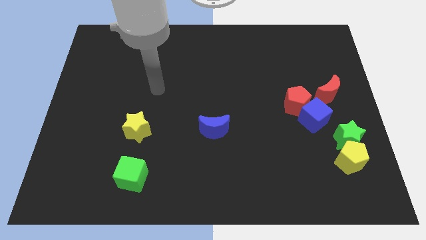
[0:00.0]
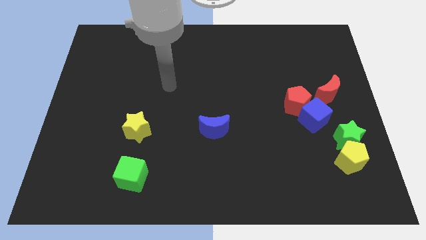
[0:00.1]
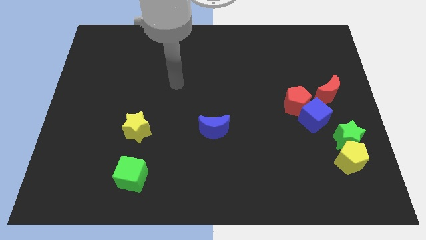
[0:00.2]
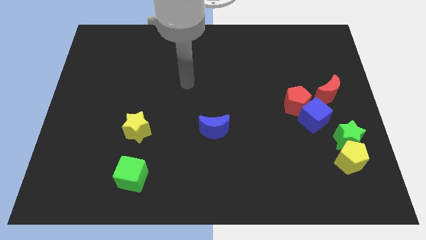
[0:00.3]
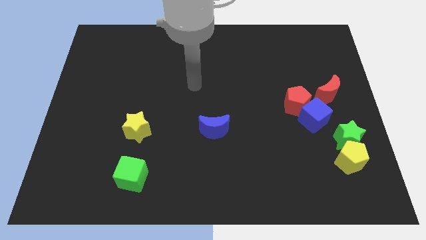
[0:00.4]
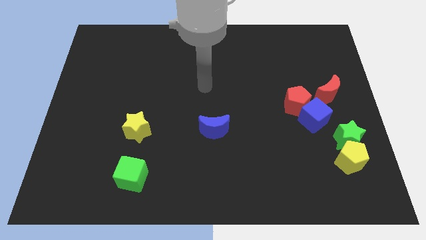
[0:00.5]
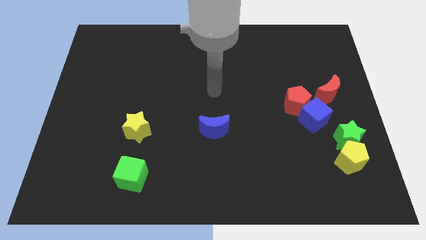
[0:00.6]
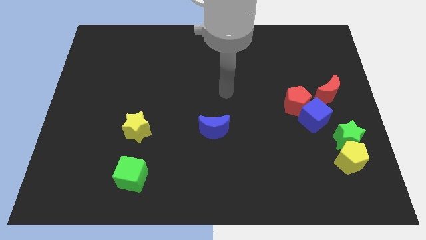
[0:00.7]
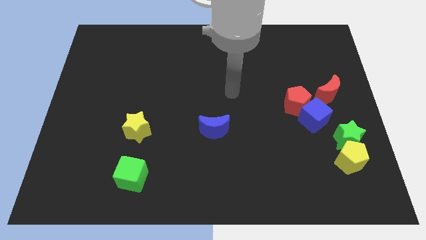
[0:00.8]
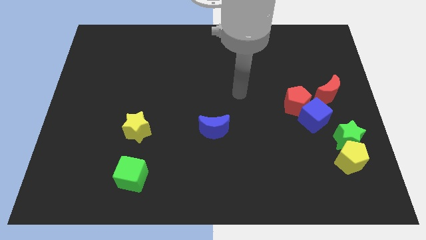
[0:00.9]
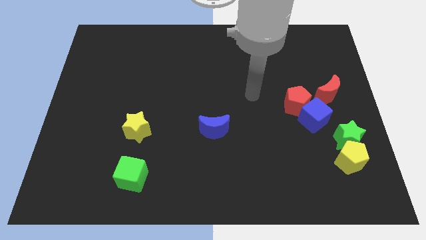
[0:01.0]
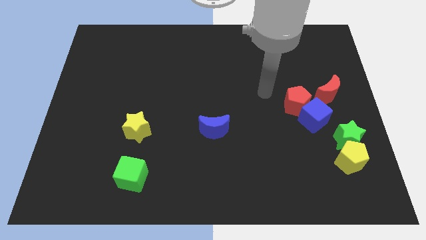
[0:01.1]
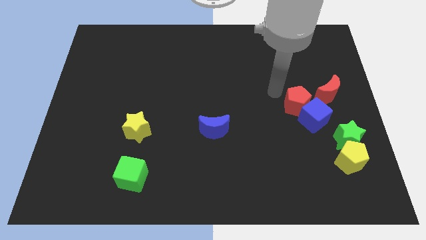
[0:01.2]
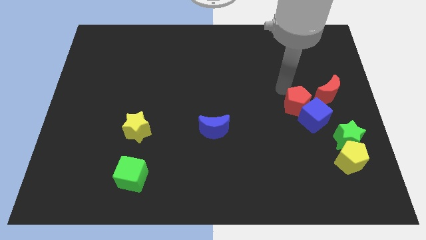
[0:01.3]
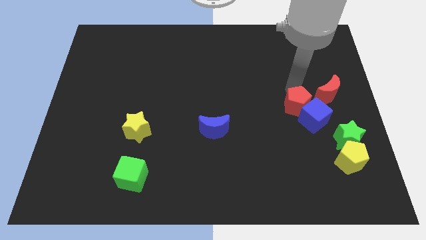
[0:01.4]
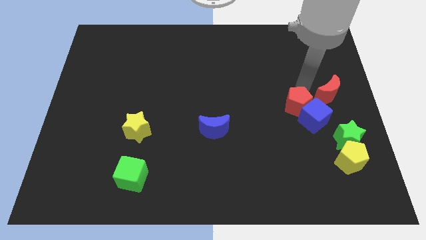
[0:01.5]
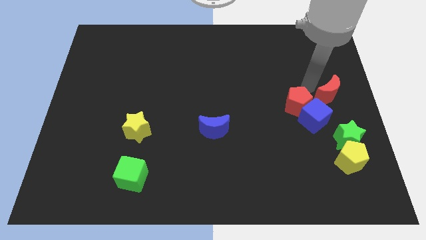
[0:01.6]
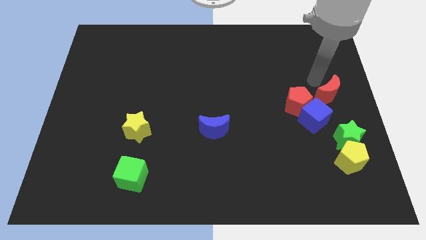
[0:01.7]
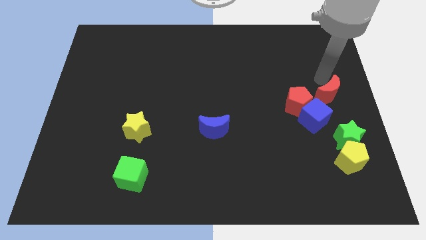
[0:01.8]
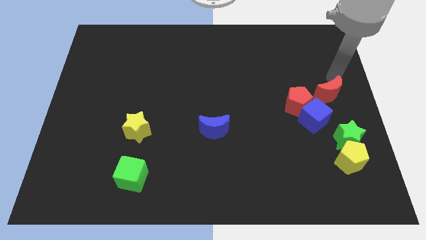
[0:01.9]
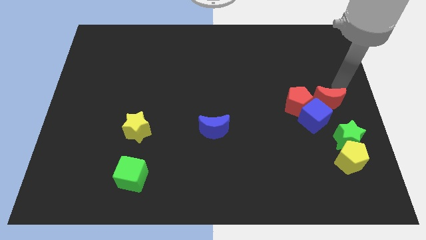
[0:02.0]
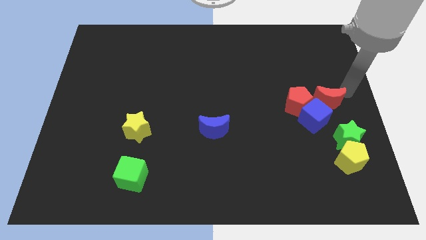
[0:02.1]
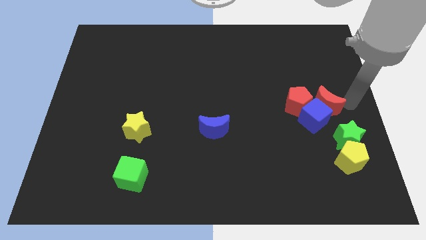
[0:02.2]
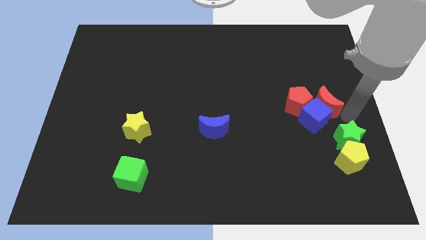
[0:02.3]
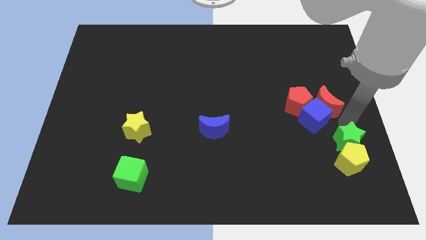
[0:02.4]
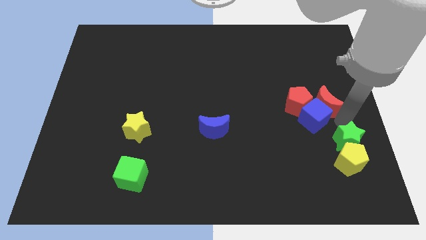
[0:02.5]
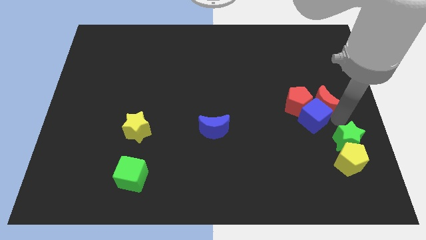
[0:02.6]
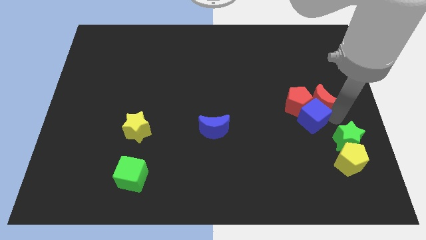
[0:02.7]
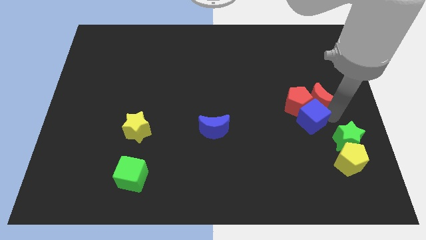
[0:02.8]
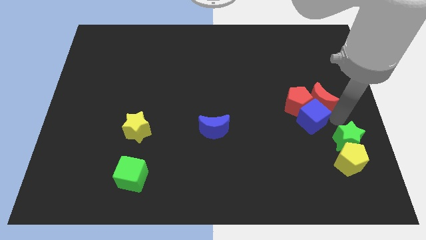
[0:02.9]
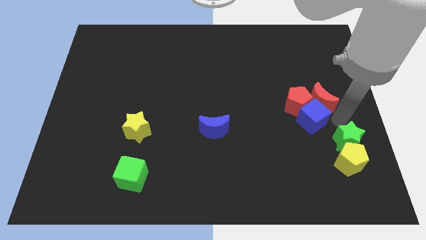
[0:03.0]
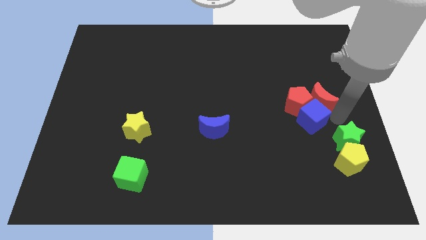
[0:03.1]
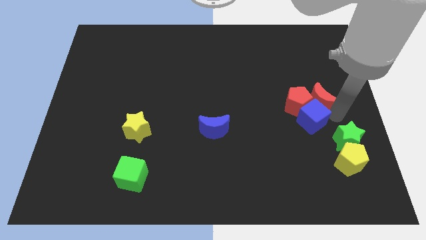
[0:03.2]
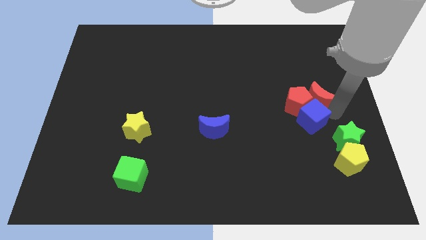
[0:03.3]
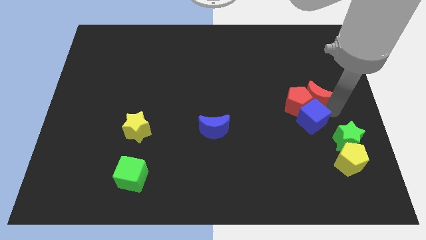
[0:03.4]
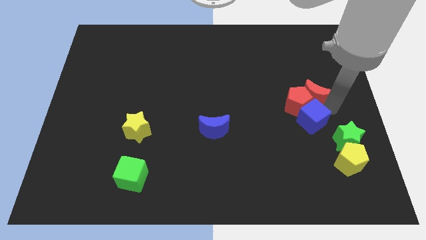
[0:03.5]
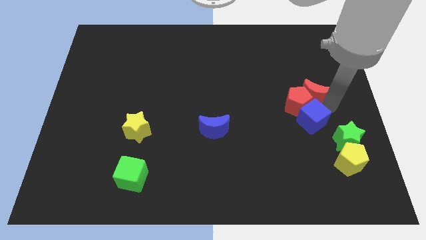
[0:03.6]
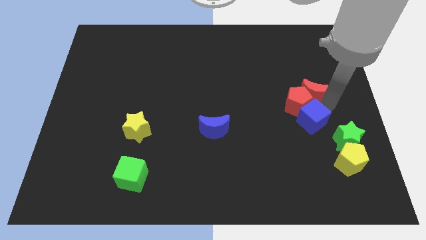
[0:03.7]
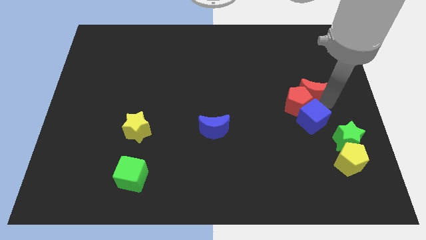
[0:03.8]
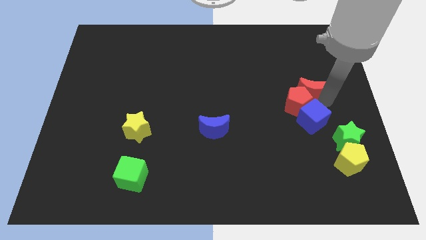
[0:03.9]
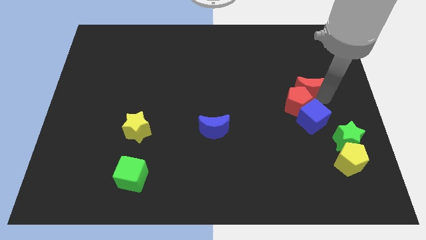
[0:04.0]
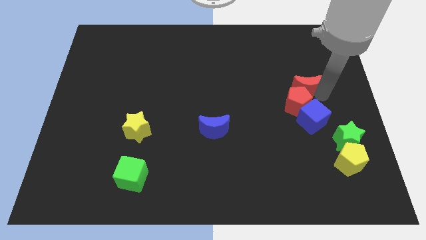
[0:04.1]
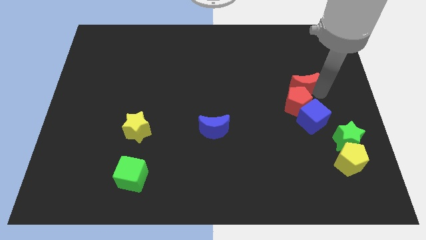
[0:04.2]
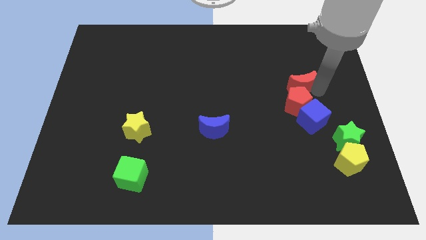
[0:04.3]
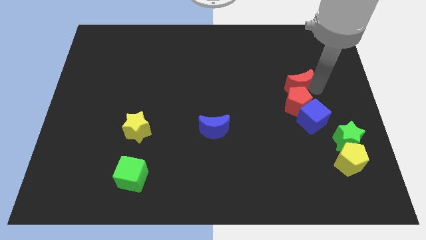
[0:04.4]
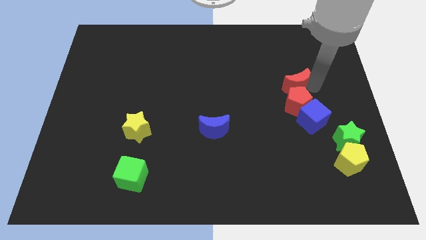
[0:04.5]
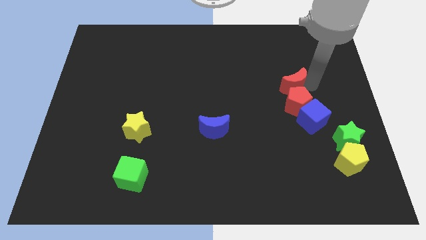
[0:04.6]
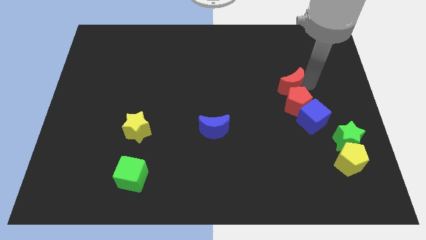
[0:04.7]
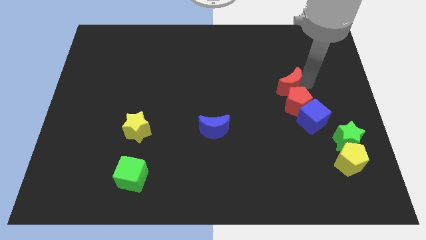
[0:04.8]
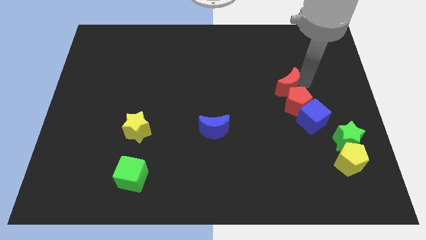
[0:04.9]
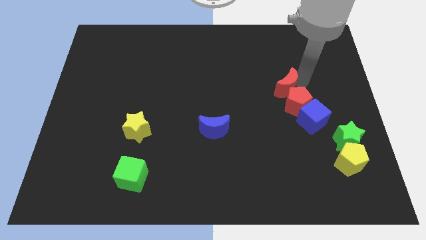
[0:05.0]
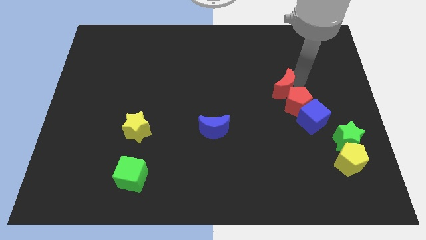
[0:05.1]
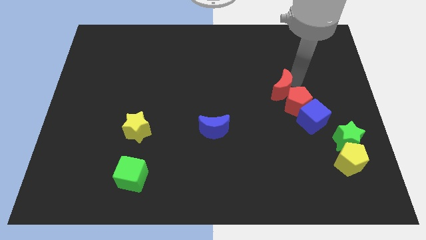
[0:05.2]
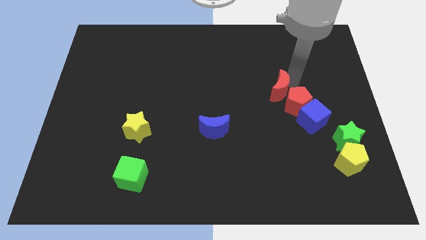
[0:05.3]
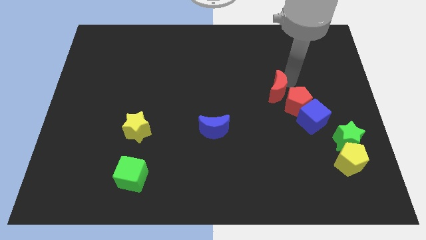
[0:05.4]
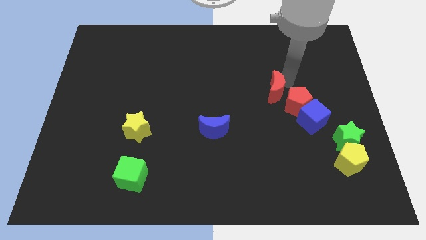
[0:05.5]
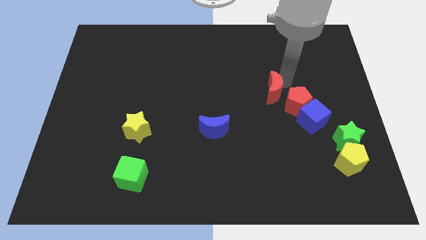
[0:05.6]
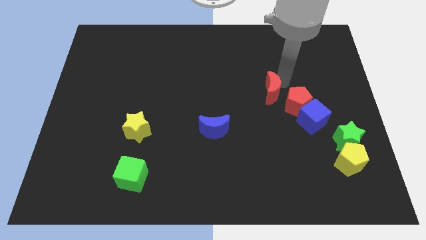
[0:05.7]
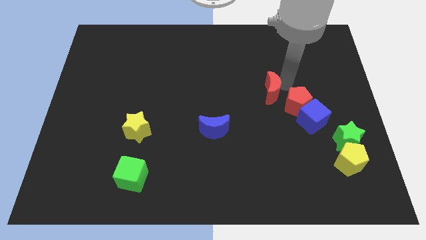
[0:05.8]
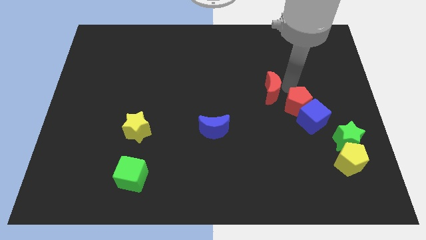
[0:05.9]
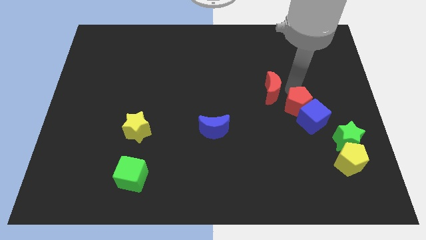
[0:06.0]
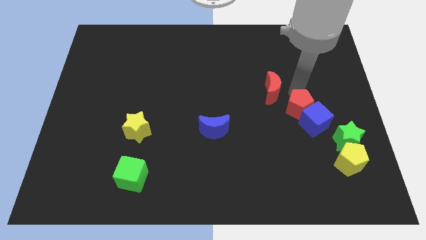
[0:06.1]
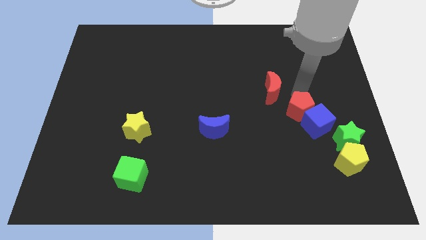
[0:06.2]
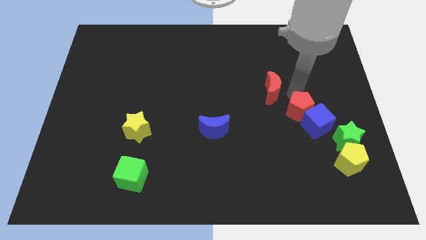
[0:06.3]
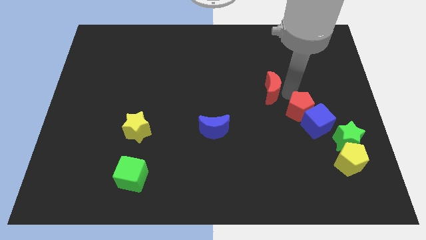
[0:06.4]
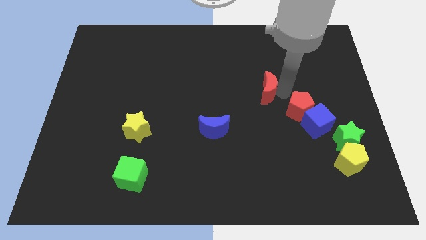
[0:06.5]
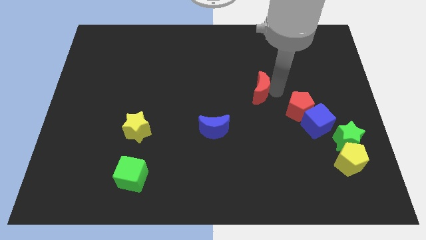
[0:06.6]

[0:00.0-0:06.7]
move the red moon to the center of the board

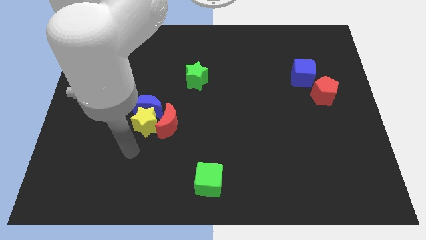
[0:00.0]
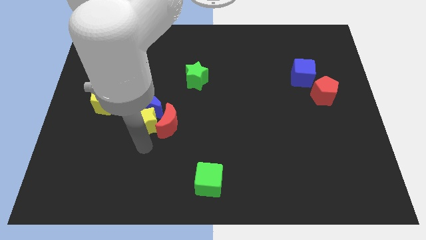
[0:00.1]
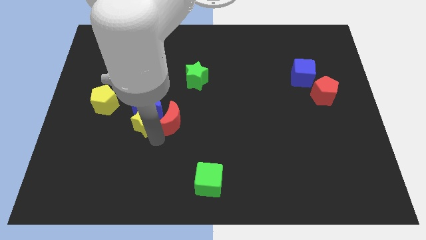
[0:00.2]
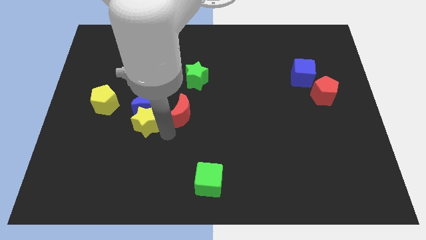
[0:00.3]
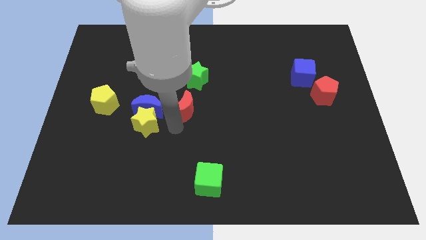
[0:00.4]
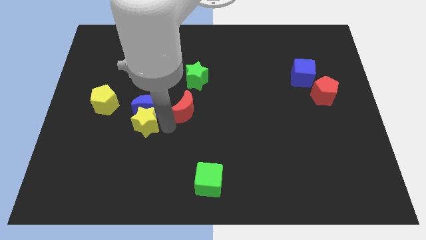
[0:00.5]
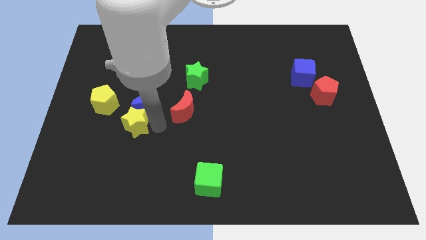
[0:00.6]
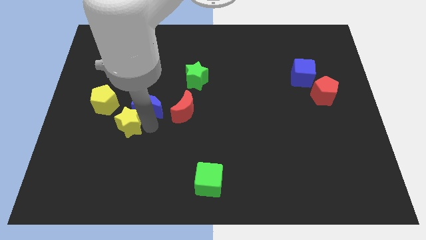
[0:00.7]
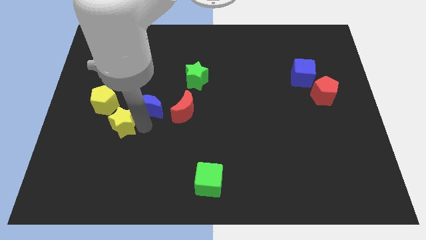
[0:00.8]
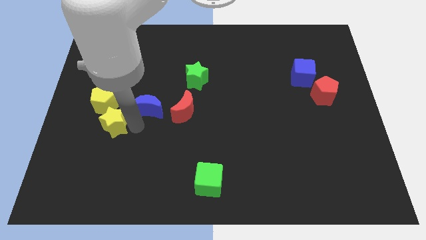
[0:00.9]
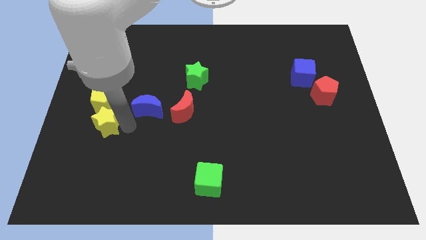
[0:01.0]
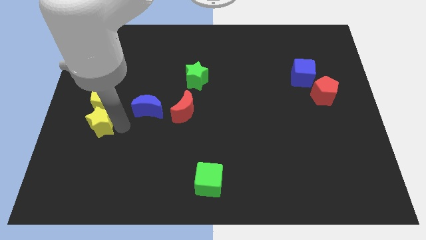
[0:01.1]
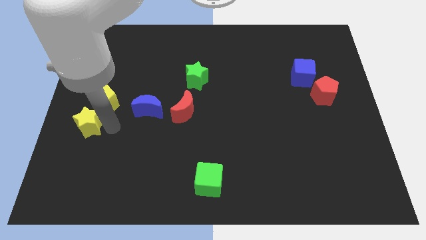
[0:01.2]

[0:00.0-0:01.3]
move the yellow star to the left side

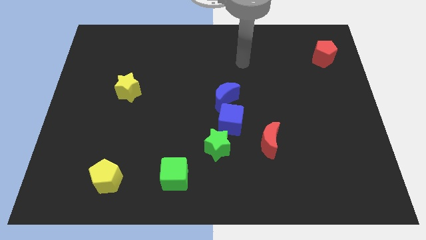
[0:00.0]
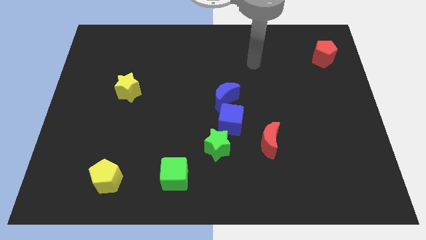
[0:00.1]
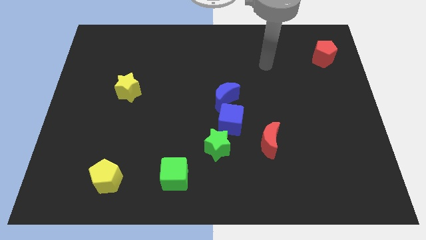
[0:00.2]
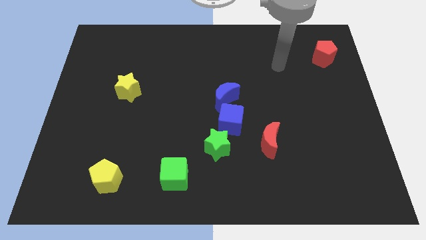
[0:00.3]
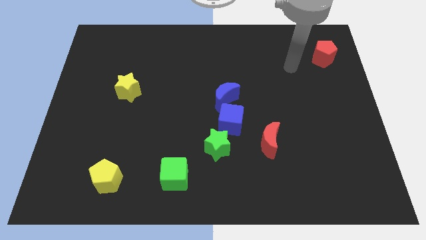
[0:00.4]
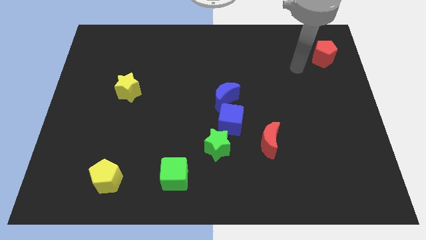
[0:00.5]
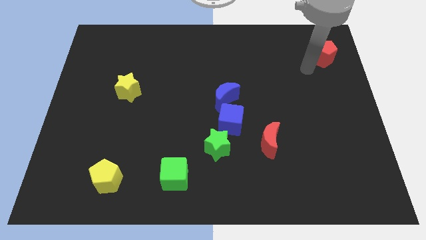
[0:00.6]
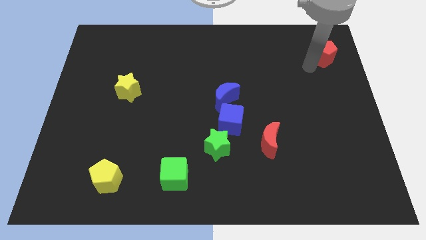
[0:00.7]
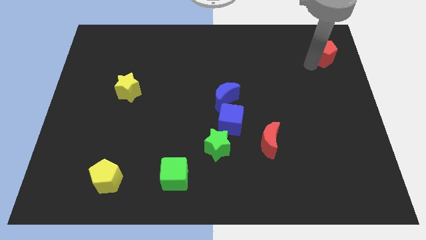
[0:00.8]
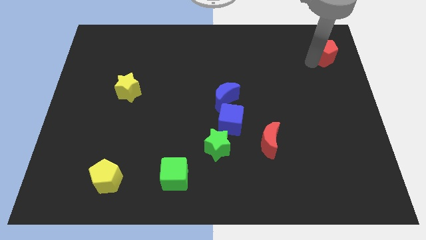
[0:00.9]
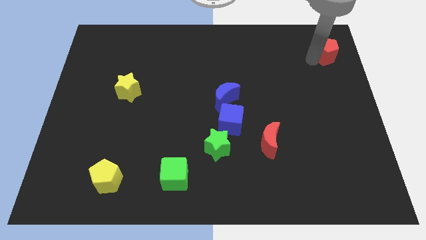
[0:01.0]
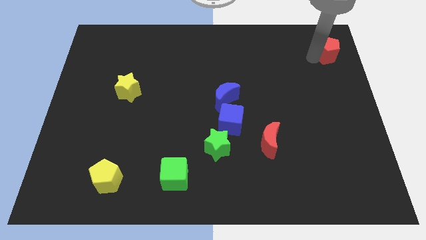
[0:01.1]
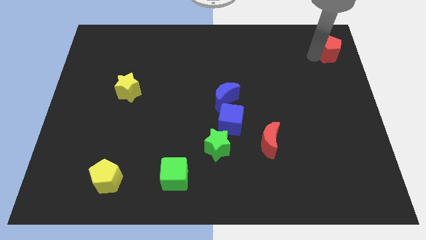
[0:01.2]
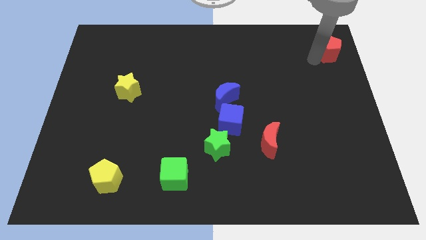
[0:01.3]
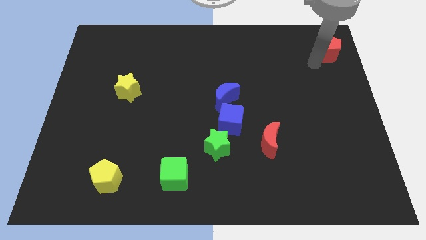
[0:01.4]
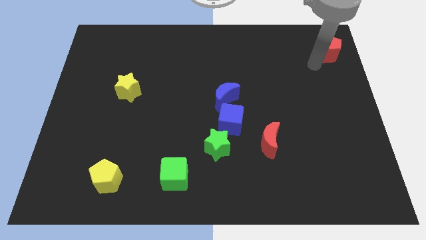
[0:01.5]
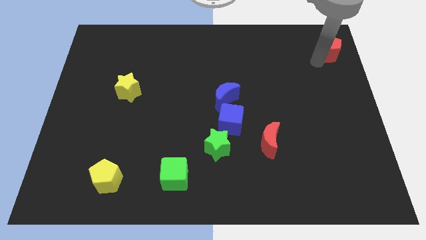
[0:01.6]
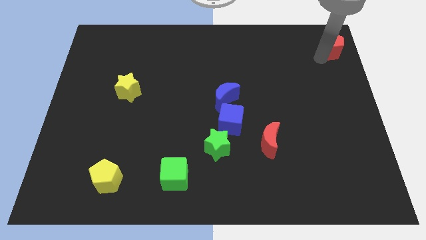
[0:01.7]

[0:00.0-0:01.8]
slide the red pentagon to the top right
